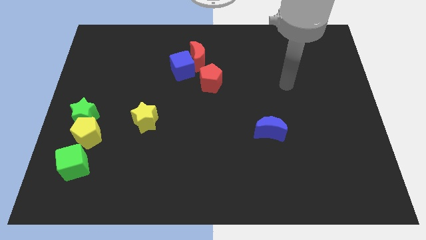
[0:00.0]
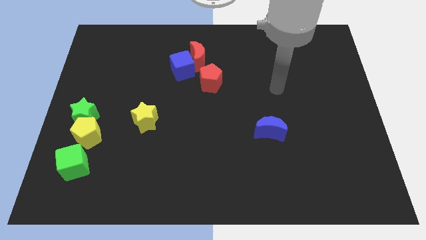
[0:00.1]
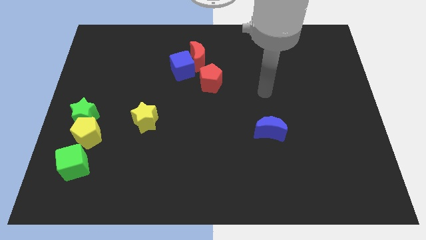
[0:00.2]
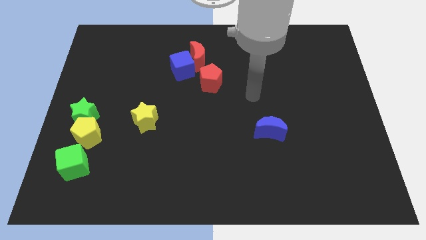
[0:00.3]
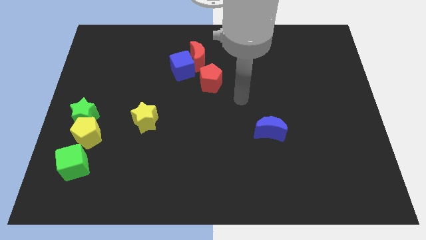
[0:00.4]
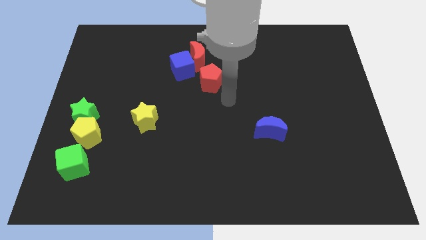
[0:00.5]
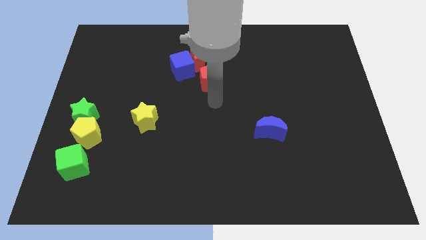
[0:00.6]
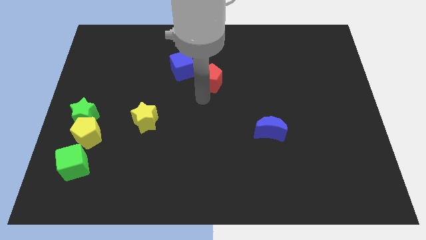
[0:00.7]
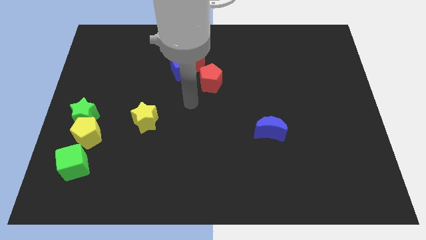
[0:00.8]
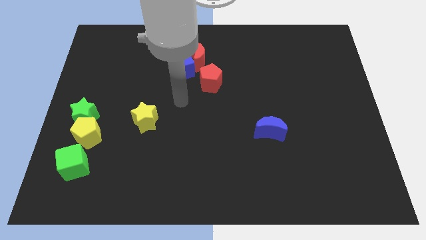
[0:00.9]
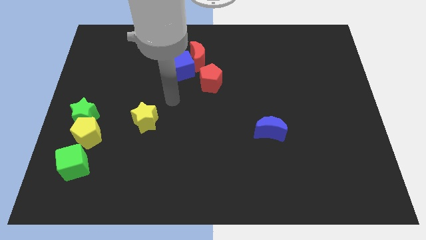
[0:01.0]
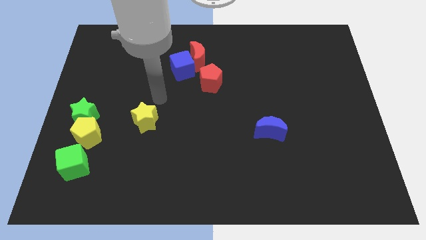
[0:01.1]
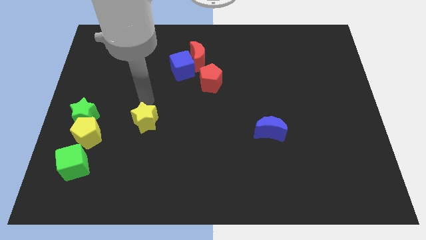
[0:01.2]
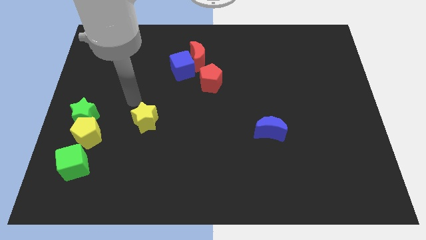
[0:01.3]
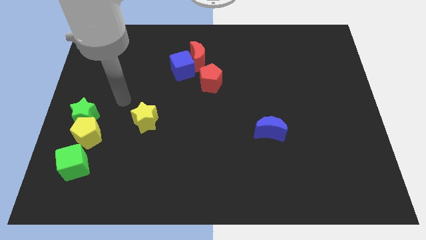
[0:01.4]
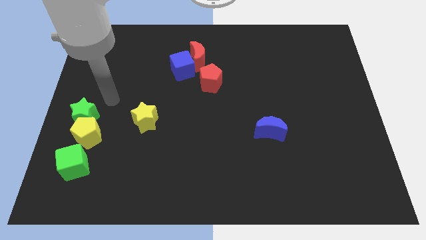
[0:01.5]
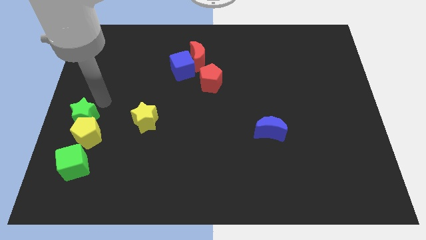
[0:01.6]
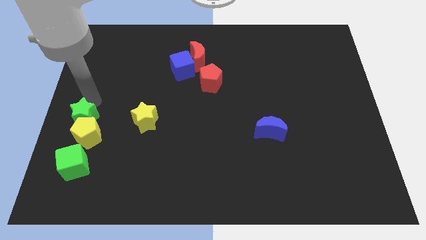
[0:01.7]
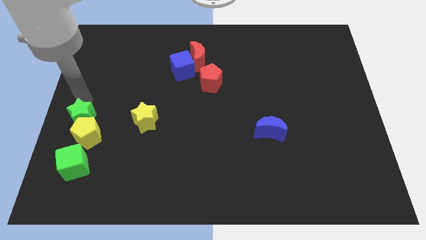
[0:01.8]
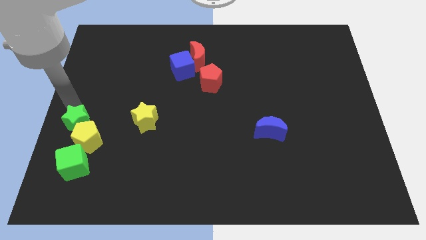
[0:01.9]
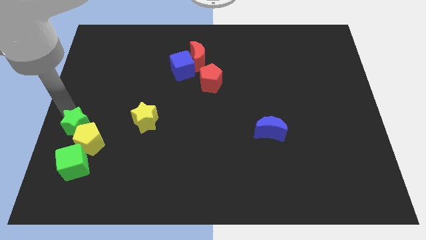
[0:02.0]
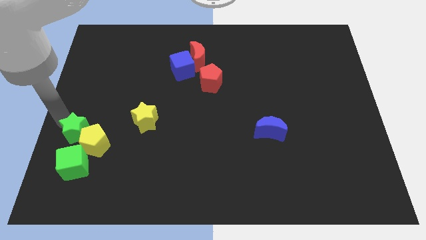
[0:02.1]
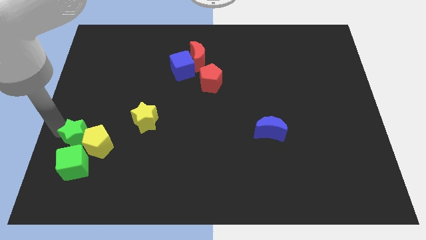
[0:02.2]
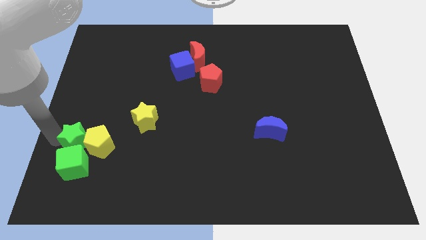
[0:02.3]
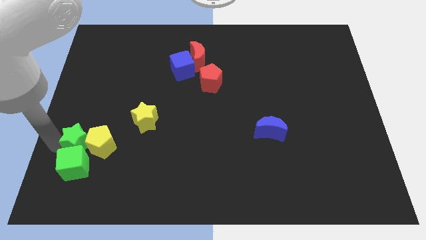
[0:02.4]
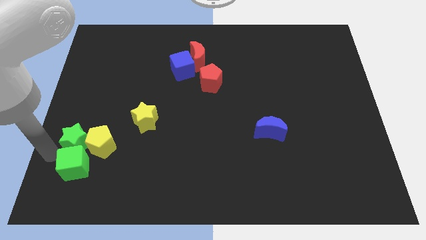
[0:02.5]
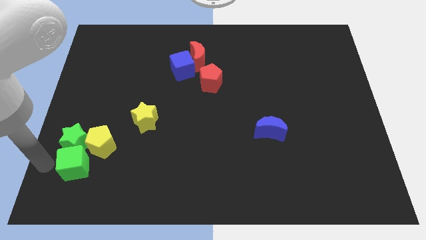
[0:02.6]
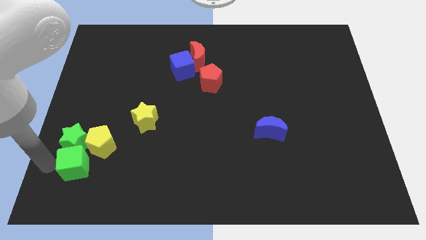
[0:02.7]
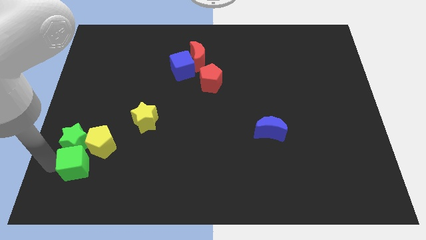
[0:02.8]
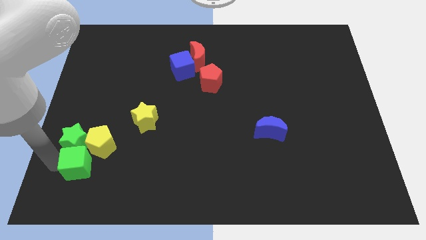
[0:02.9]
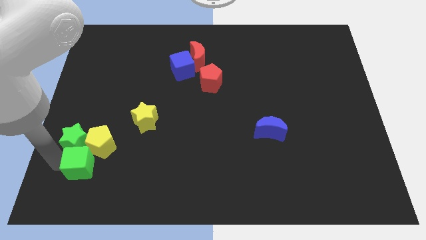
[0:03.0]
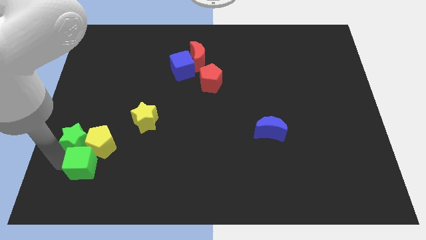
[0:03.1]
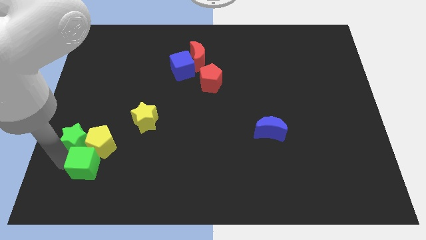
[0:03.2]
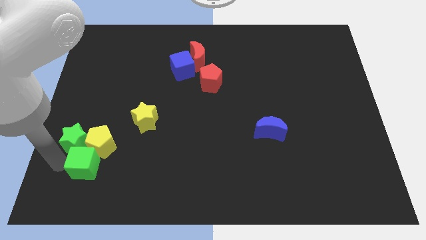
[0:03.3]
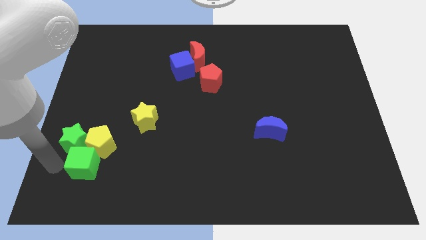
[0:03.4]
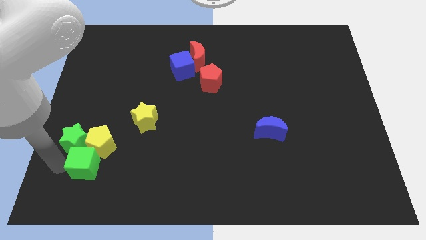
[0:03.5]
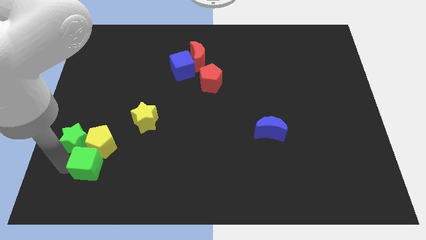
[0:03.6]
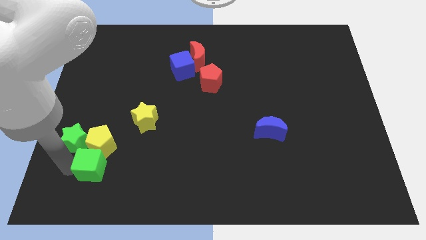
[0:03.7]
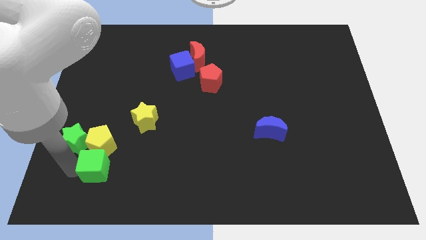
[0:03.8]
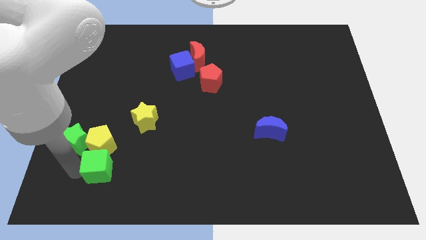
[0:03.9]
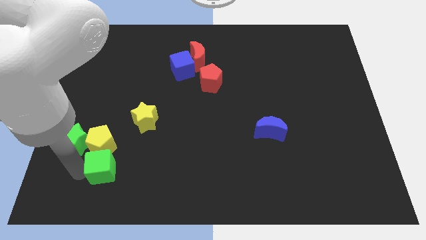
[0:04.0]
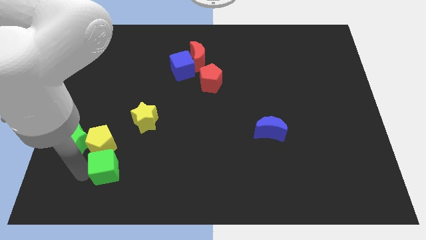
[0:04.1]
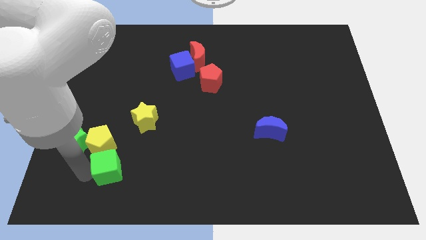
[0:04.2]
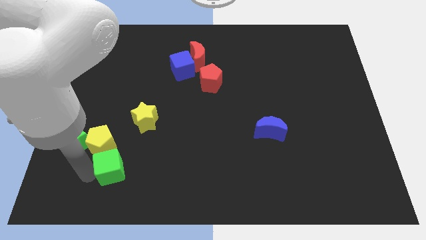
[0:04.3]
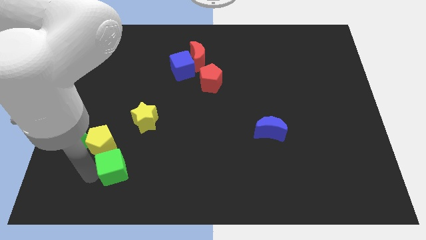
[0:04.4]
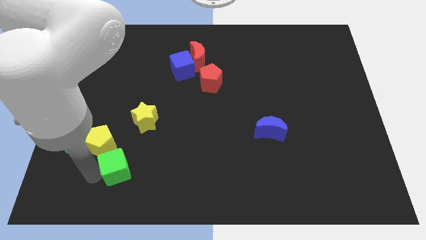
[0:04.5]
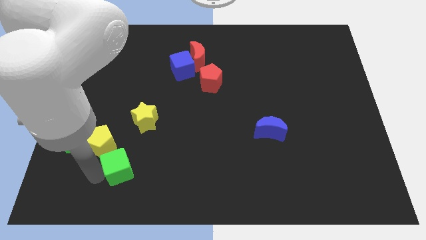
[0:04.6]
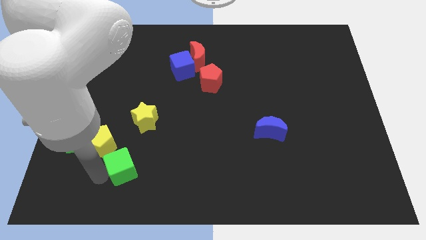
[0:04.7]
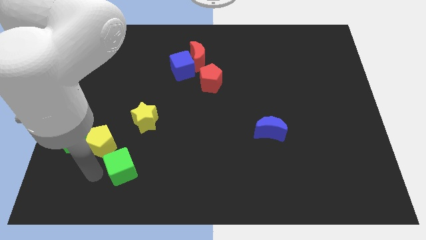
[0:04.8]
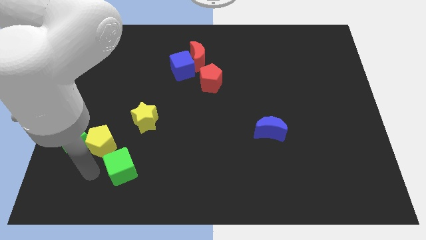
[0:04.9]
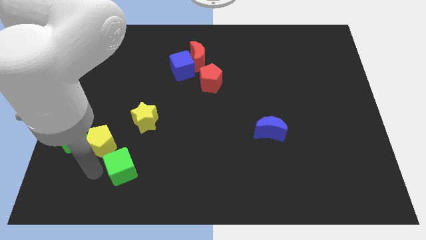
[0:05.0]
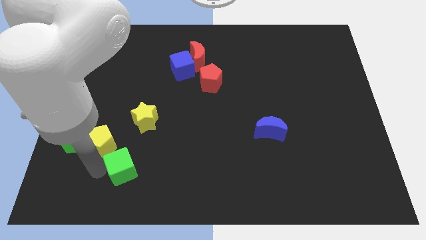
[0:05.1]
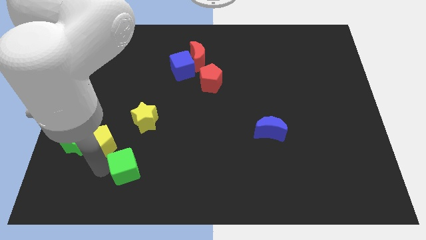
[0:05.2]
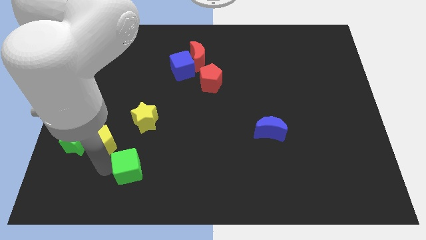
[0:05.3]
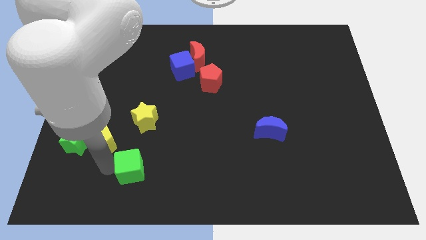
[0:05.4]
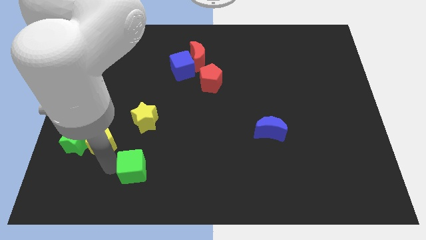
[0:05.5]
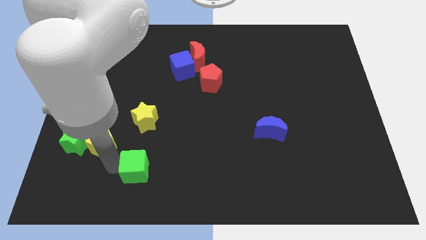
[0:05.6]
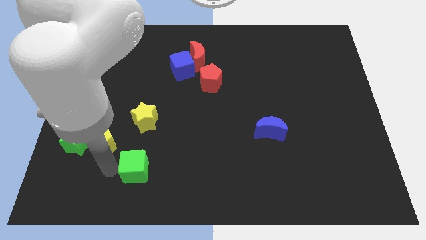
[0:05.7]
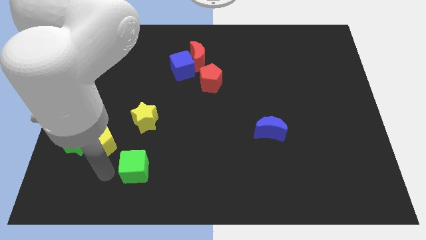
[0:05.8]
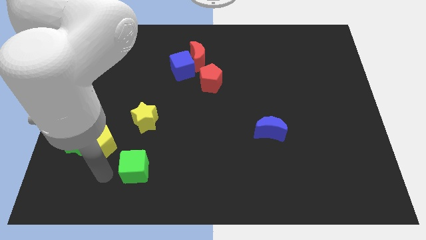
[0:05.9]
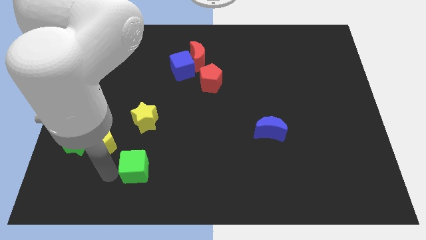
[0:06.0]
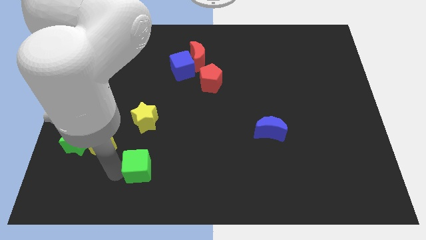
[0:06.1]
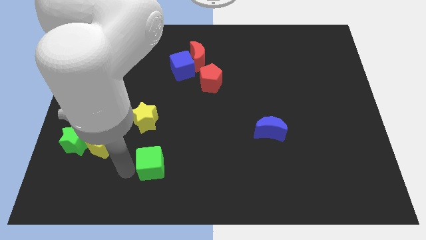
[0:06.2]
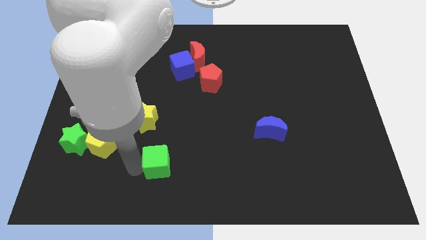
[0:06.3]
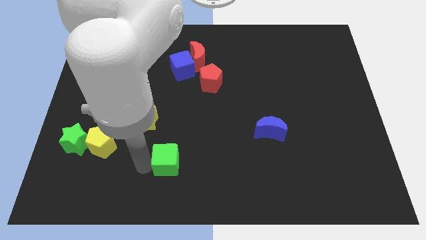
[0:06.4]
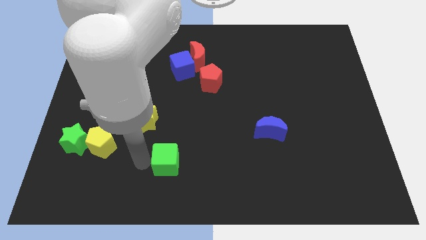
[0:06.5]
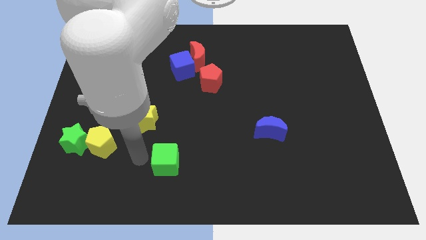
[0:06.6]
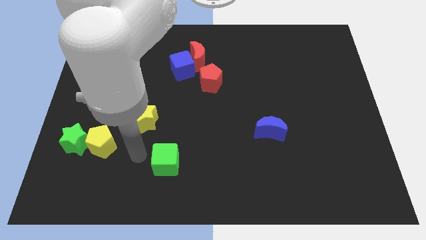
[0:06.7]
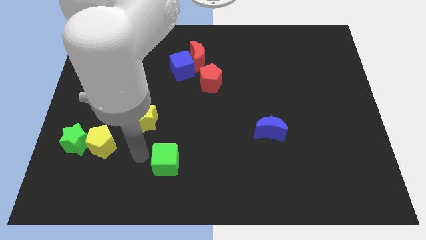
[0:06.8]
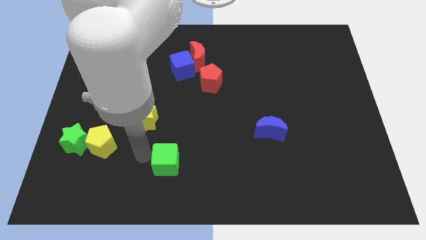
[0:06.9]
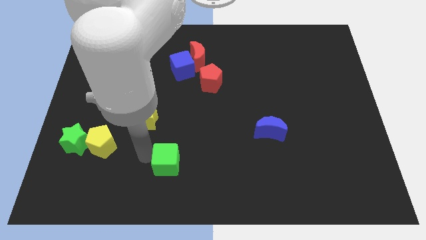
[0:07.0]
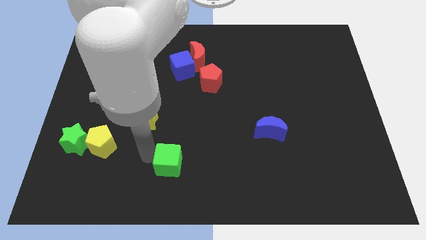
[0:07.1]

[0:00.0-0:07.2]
push the green cube to the right

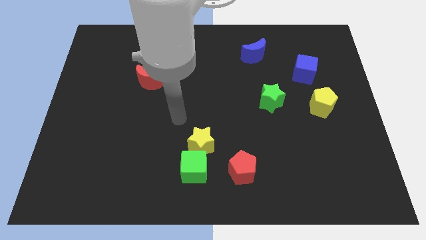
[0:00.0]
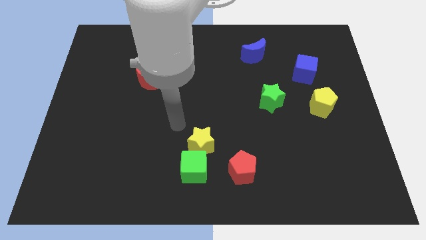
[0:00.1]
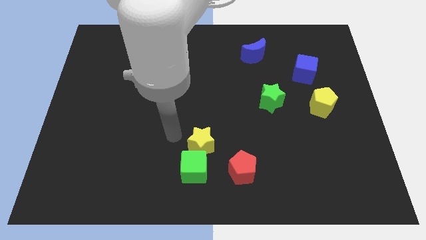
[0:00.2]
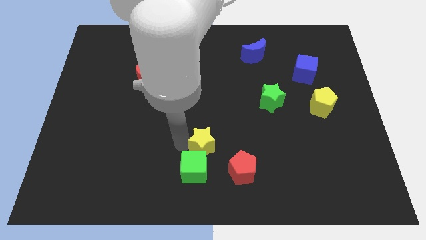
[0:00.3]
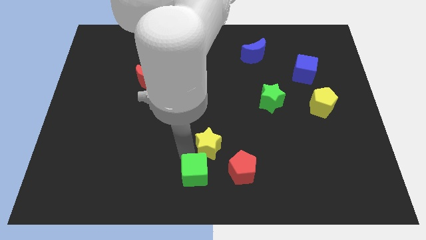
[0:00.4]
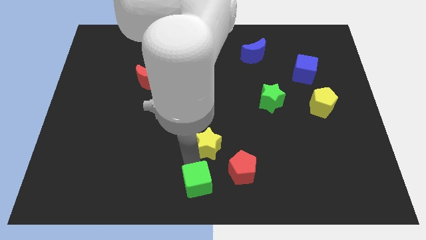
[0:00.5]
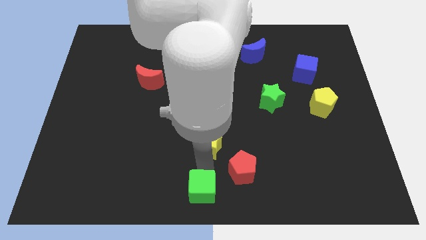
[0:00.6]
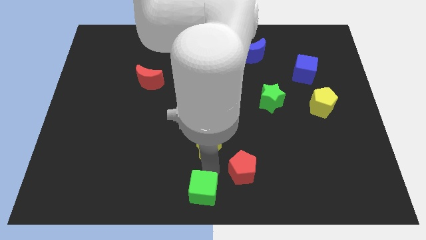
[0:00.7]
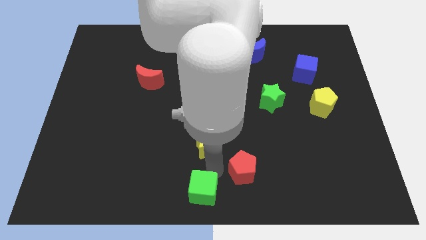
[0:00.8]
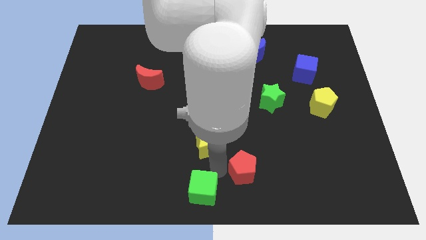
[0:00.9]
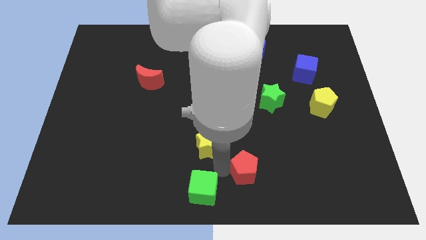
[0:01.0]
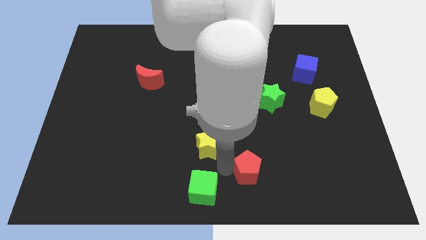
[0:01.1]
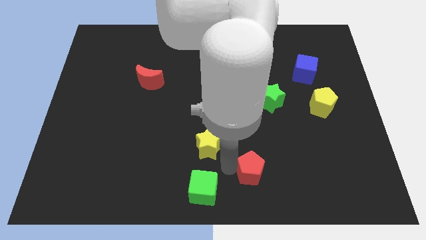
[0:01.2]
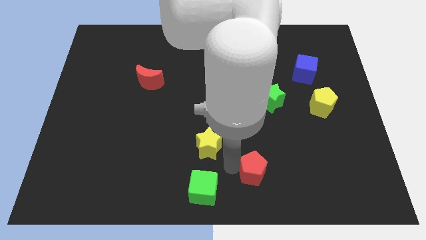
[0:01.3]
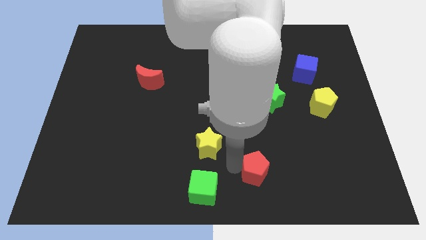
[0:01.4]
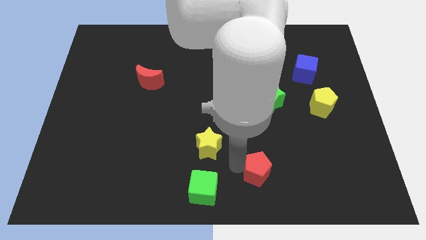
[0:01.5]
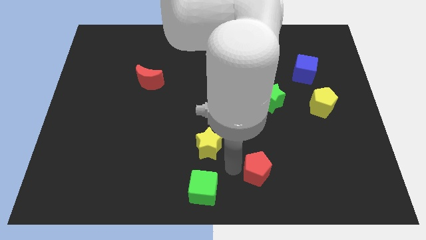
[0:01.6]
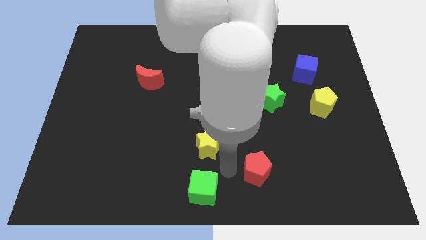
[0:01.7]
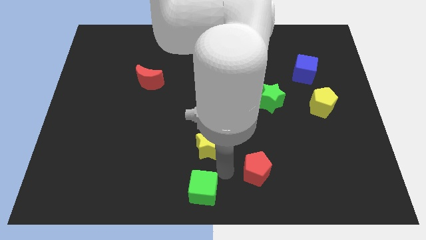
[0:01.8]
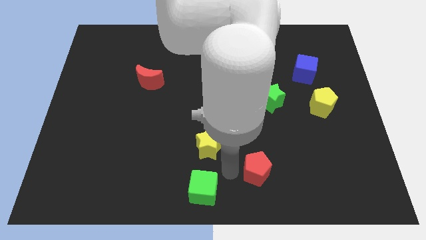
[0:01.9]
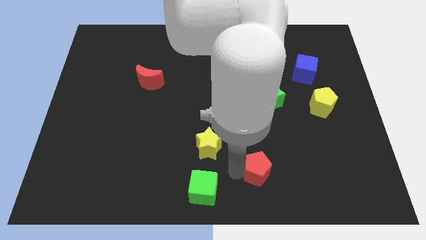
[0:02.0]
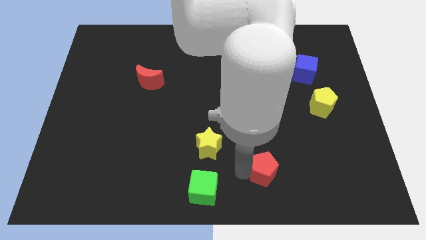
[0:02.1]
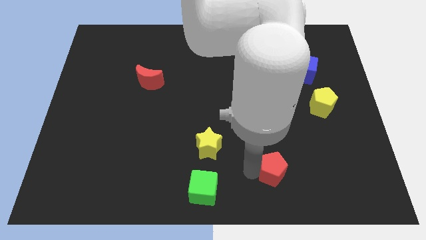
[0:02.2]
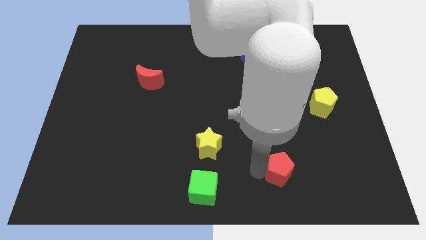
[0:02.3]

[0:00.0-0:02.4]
move the red pentagon right somewhat
